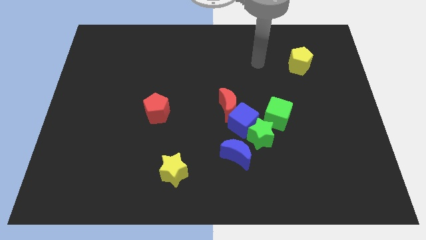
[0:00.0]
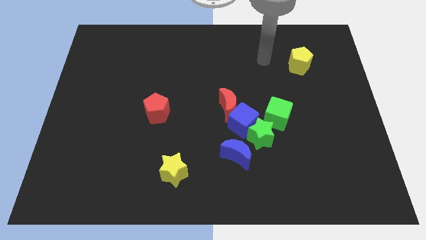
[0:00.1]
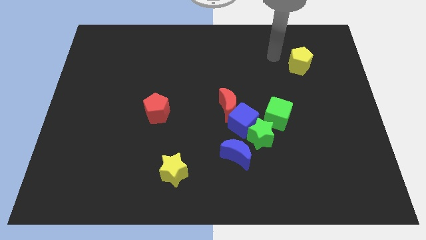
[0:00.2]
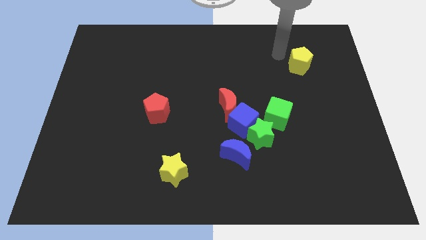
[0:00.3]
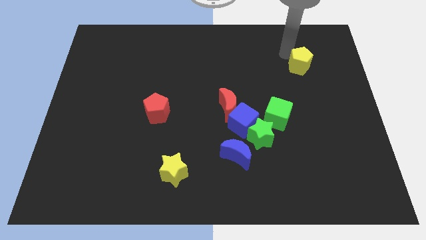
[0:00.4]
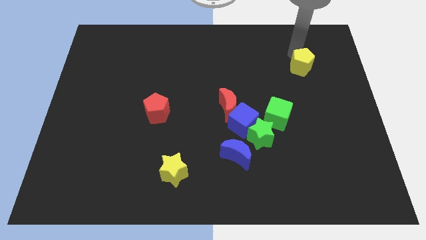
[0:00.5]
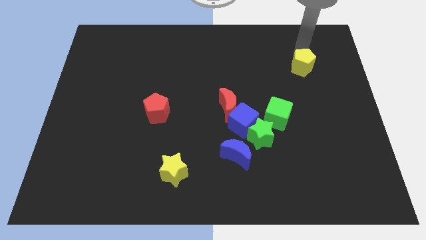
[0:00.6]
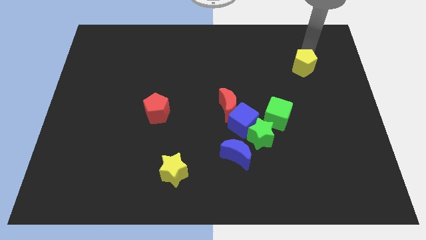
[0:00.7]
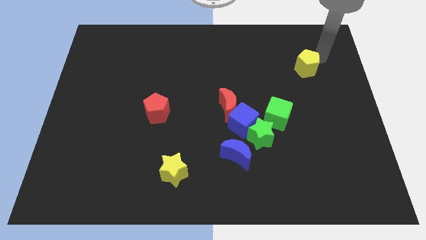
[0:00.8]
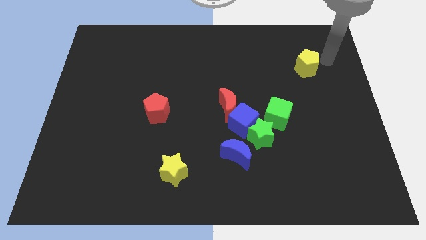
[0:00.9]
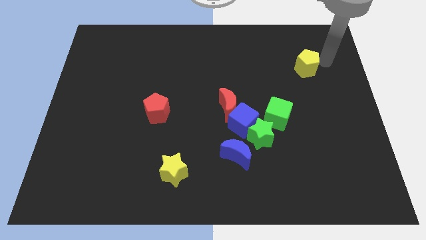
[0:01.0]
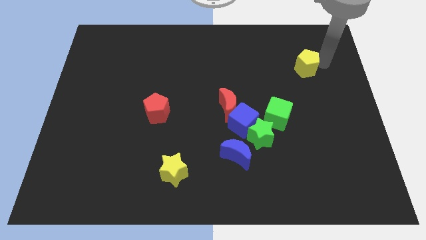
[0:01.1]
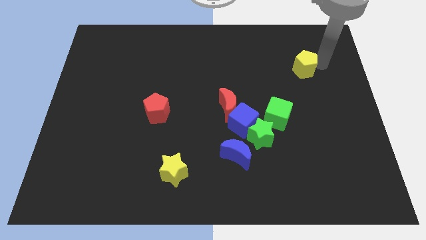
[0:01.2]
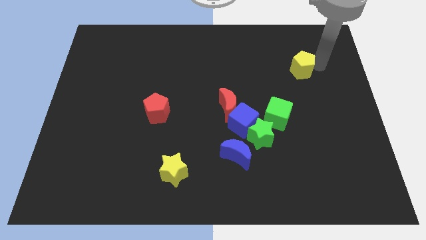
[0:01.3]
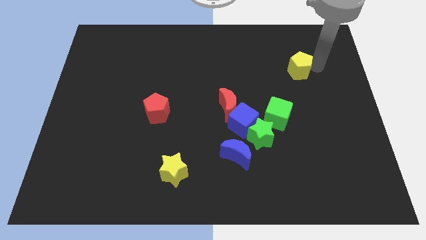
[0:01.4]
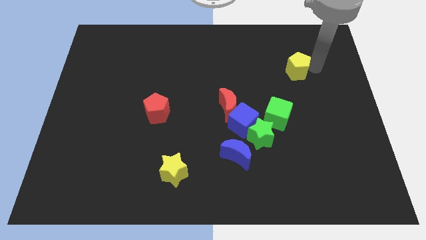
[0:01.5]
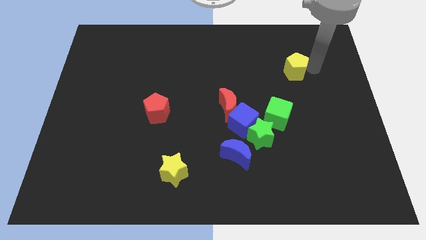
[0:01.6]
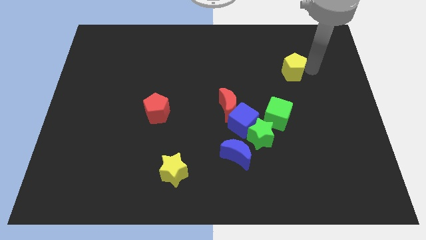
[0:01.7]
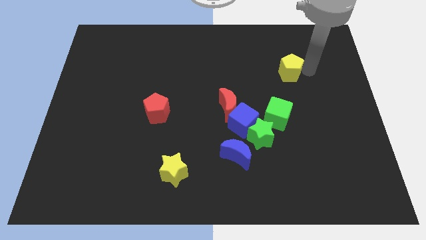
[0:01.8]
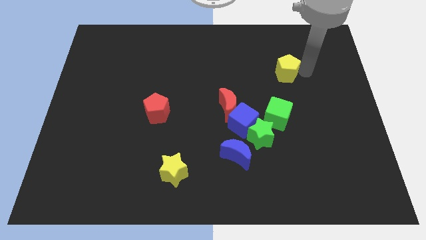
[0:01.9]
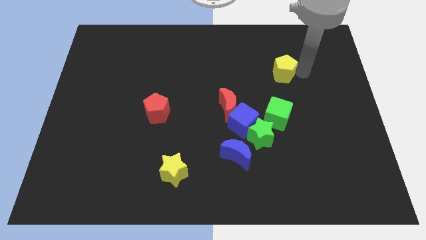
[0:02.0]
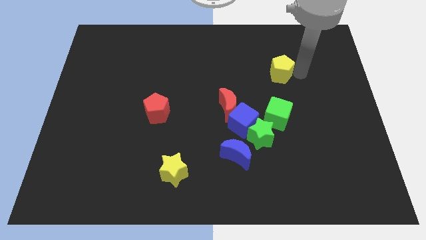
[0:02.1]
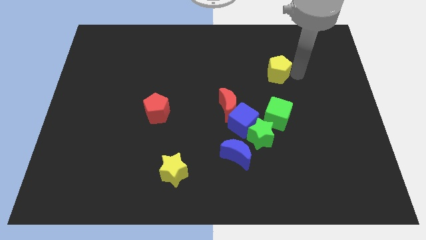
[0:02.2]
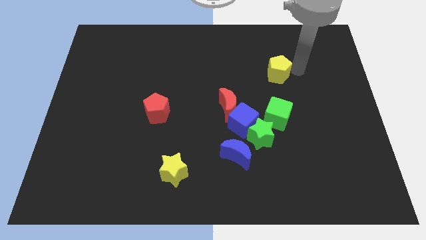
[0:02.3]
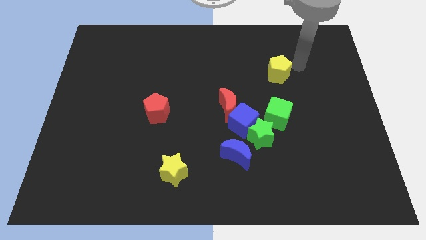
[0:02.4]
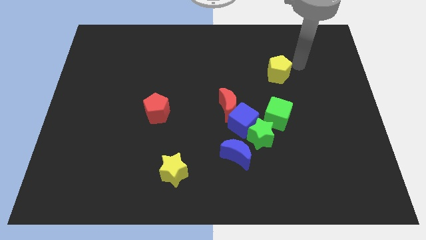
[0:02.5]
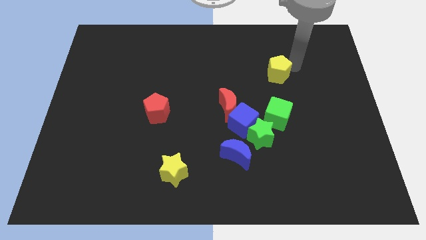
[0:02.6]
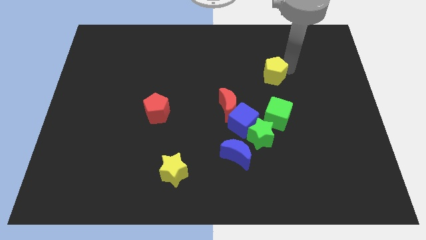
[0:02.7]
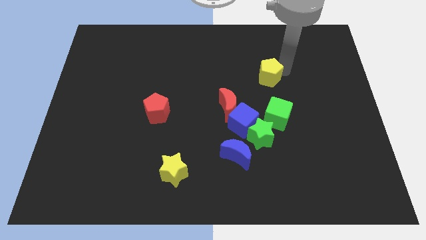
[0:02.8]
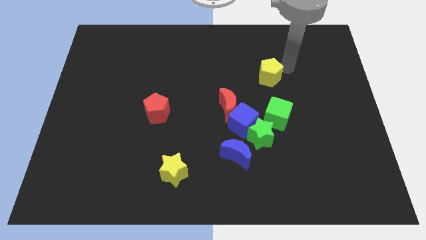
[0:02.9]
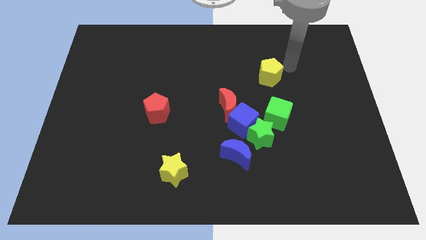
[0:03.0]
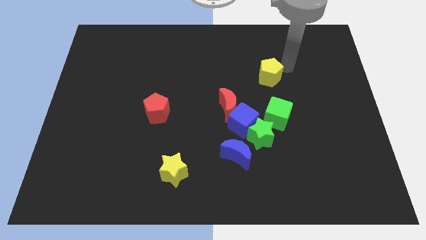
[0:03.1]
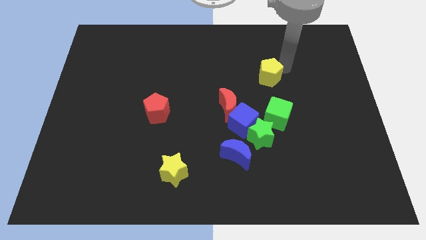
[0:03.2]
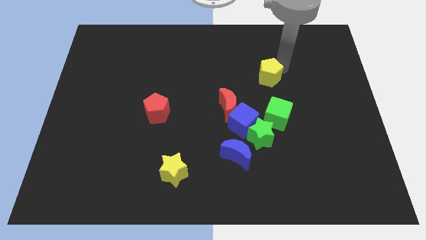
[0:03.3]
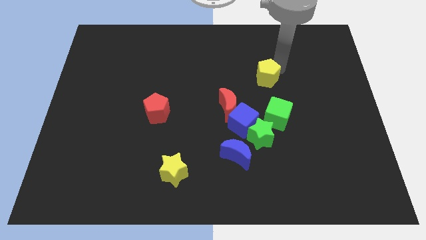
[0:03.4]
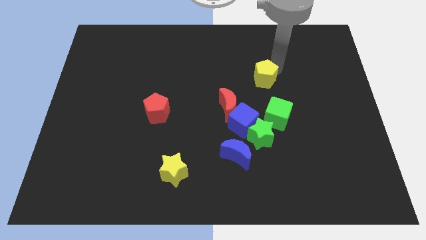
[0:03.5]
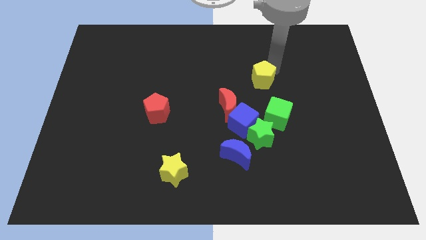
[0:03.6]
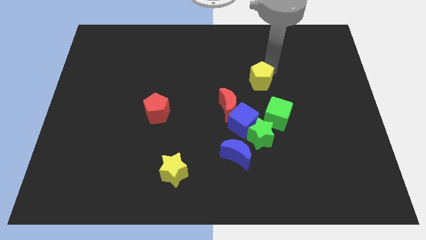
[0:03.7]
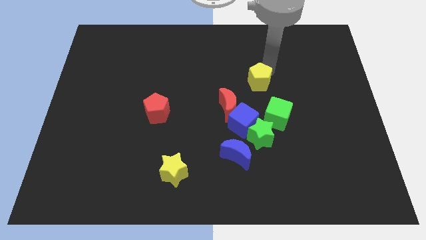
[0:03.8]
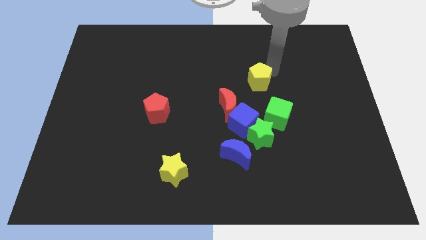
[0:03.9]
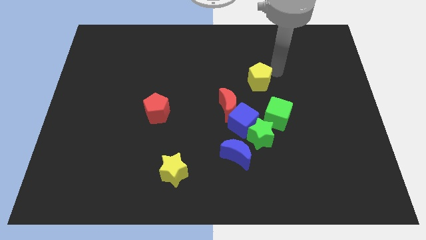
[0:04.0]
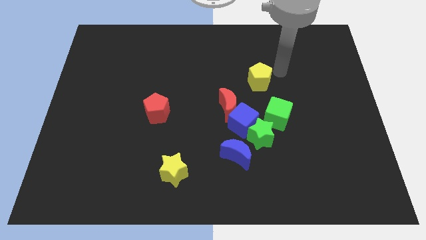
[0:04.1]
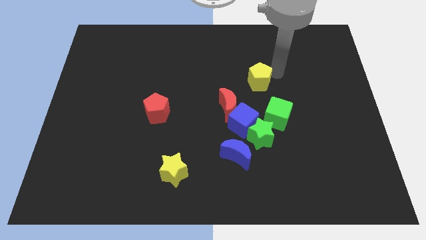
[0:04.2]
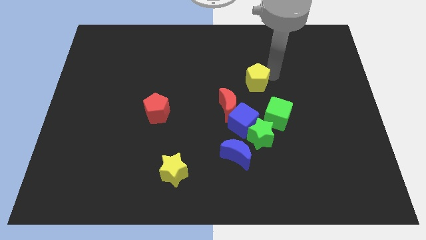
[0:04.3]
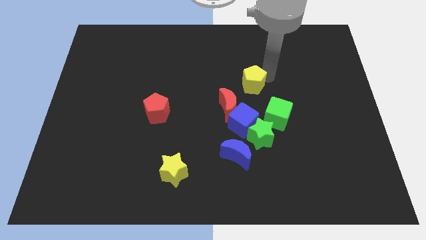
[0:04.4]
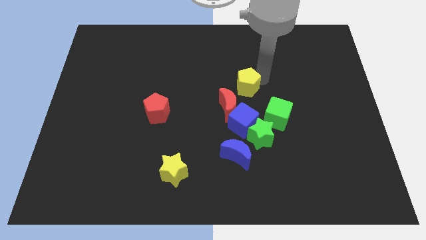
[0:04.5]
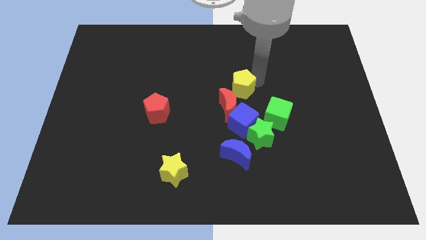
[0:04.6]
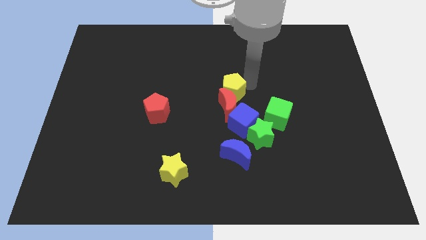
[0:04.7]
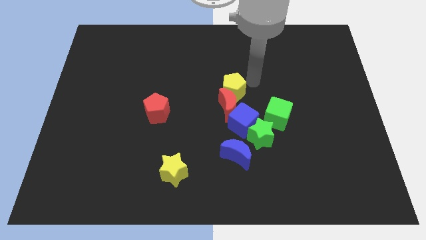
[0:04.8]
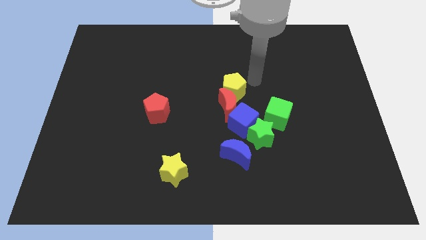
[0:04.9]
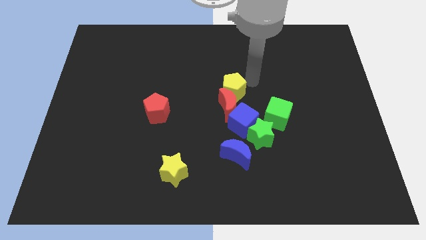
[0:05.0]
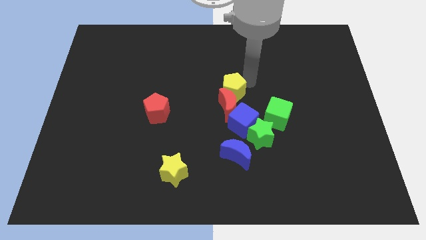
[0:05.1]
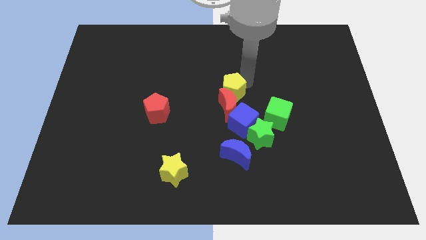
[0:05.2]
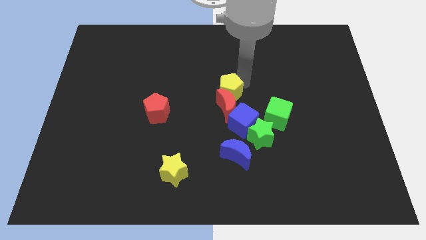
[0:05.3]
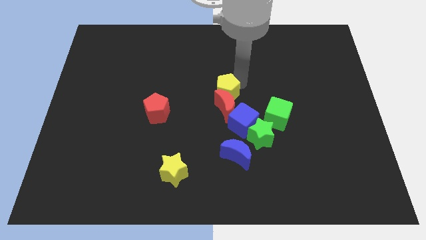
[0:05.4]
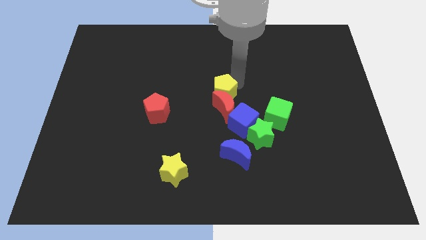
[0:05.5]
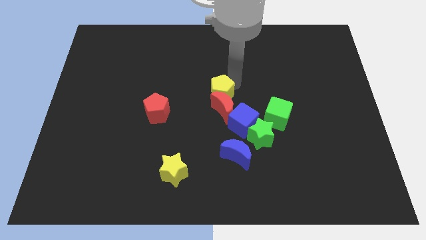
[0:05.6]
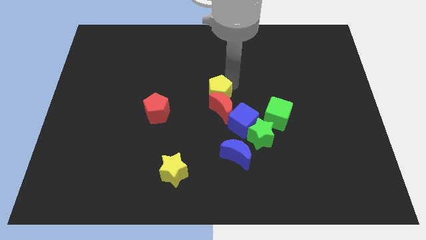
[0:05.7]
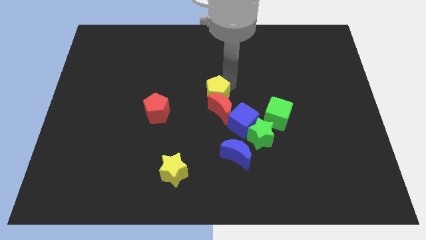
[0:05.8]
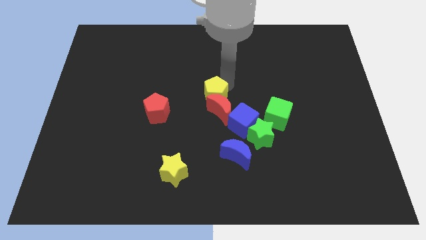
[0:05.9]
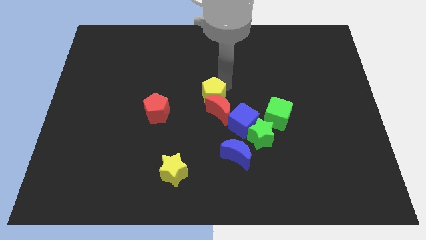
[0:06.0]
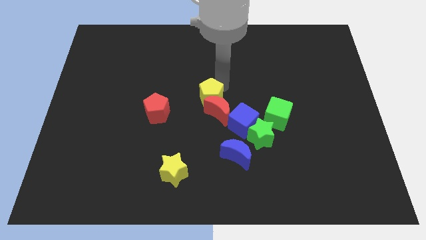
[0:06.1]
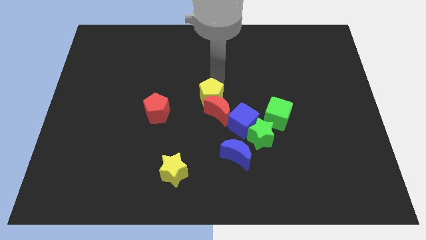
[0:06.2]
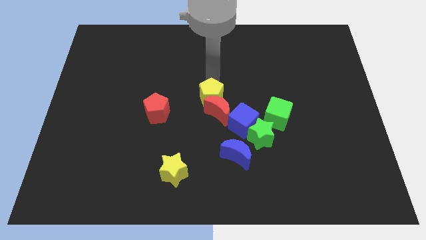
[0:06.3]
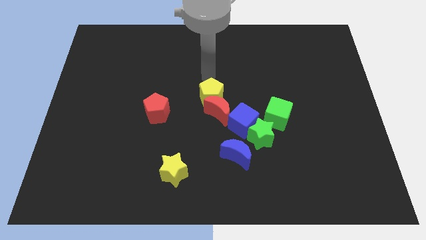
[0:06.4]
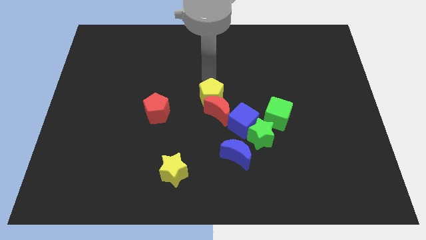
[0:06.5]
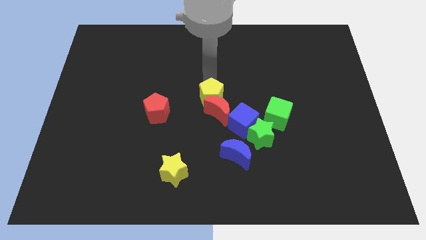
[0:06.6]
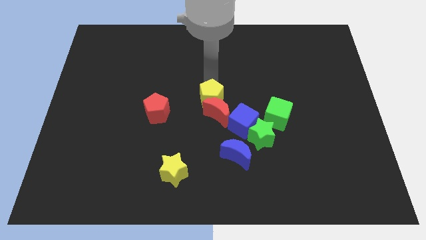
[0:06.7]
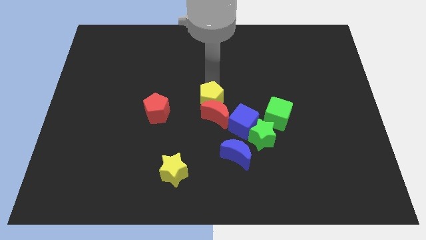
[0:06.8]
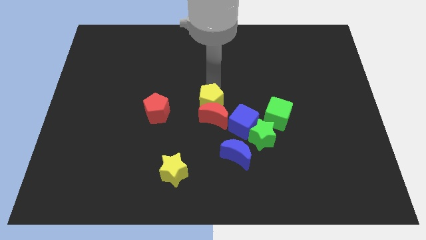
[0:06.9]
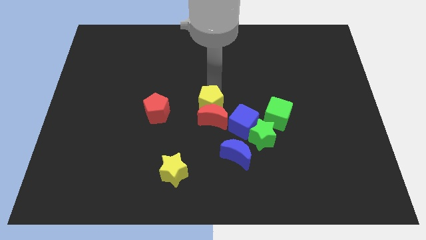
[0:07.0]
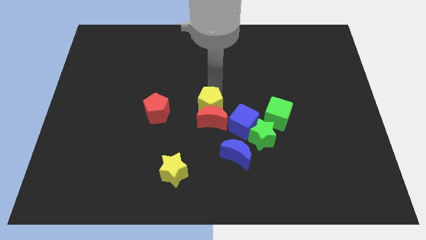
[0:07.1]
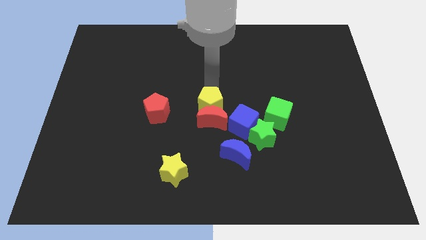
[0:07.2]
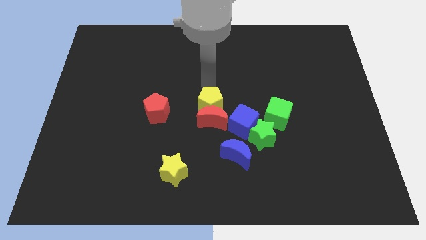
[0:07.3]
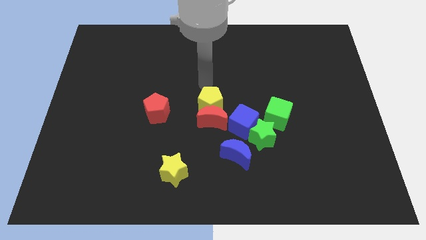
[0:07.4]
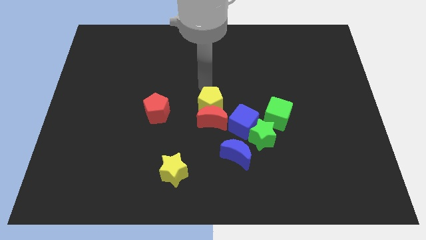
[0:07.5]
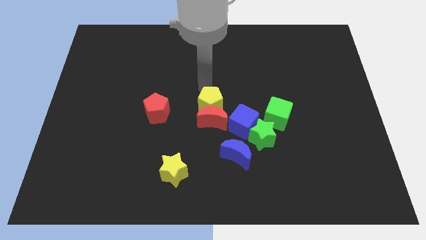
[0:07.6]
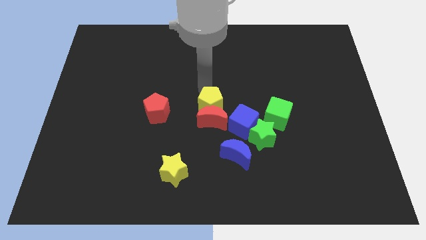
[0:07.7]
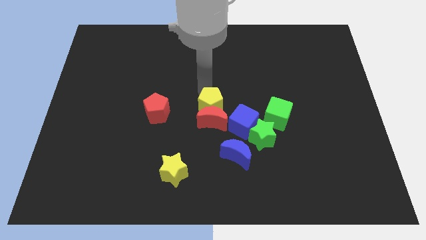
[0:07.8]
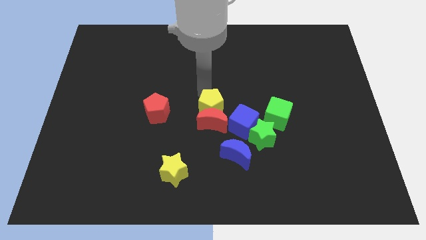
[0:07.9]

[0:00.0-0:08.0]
move the yellow pentagon just left of the green cube
